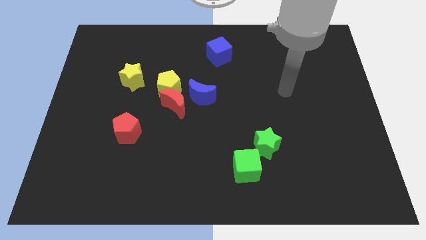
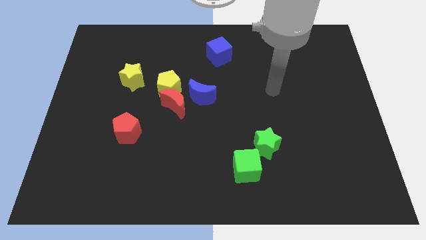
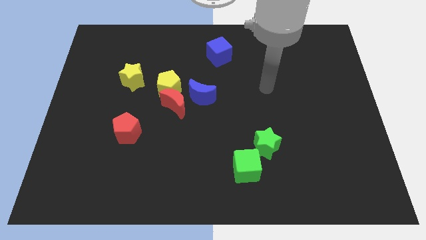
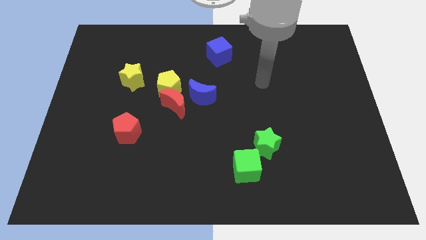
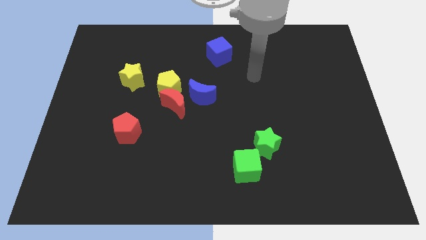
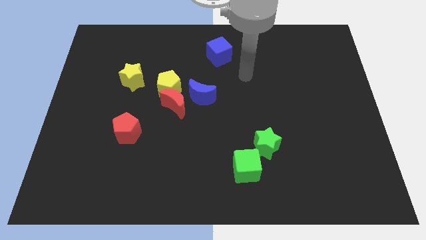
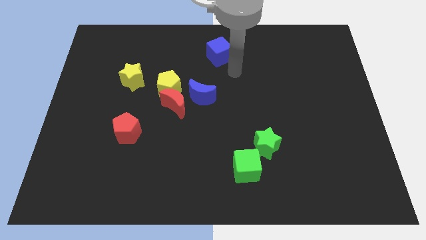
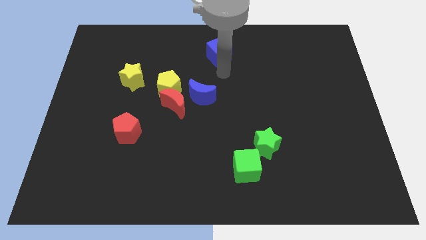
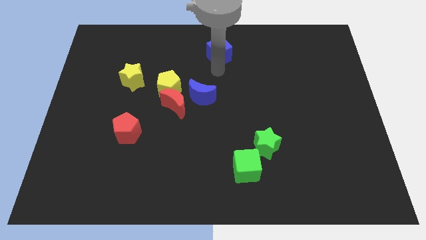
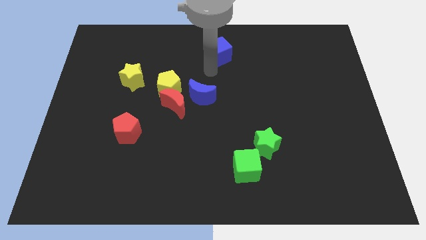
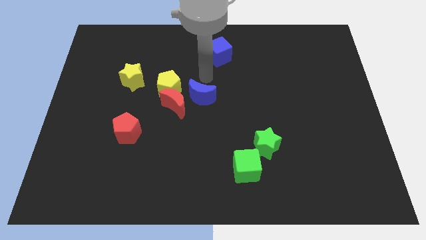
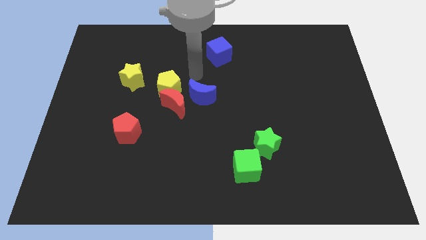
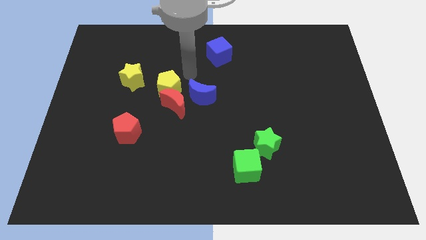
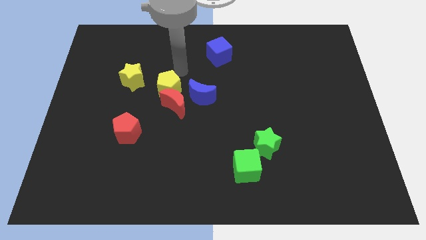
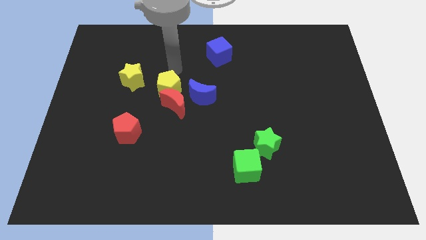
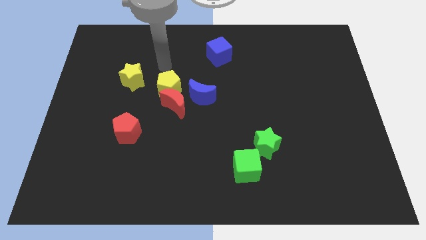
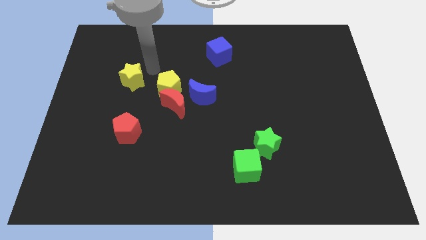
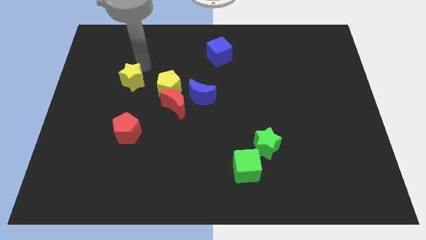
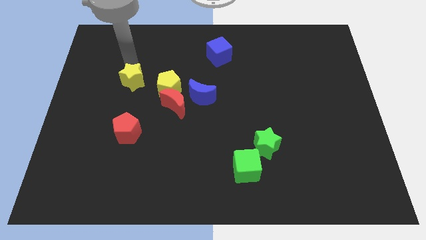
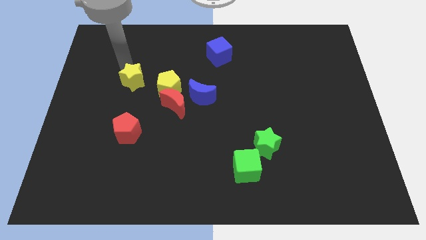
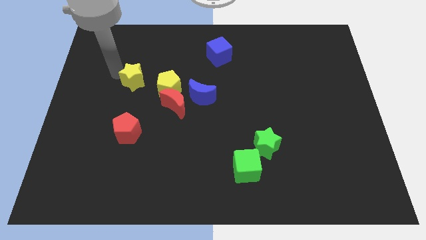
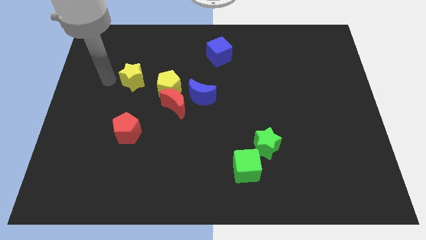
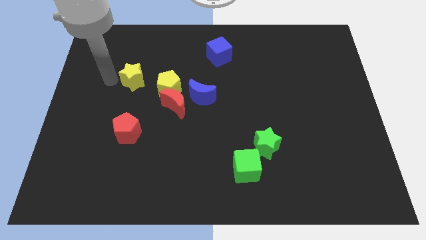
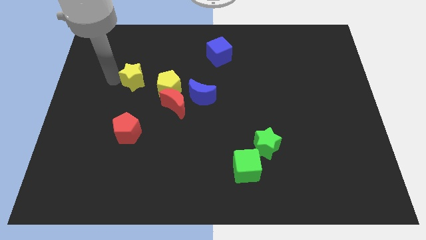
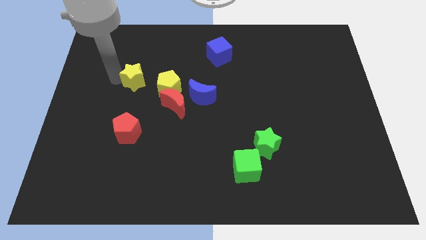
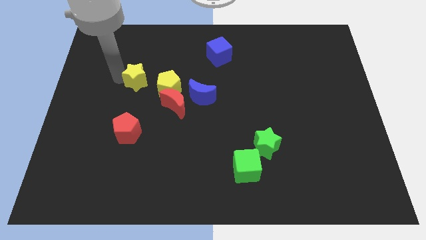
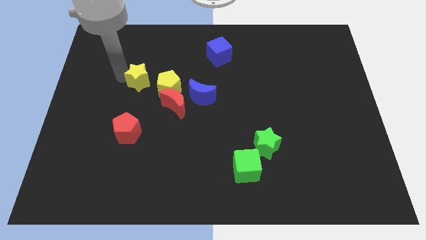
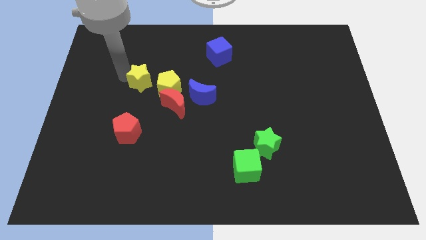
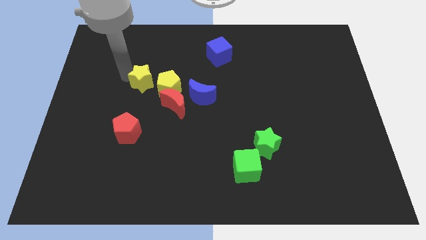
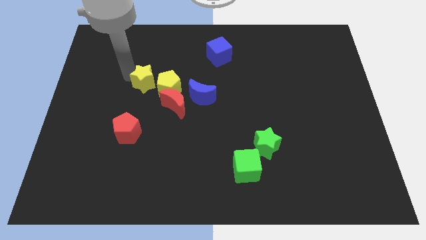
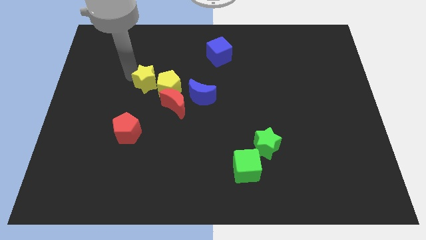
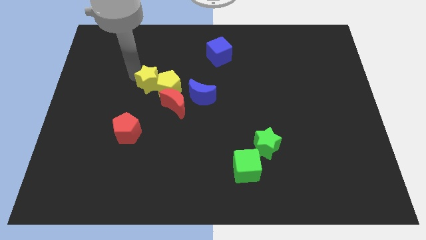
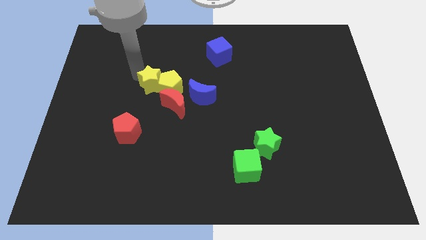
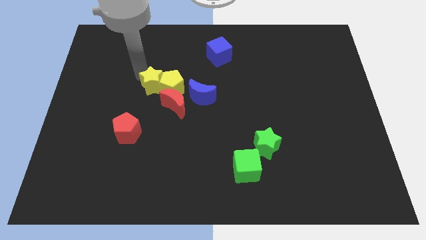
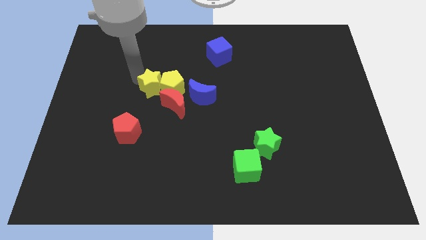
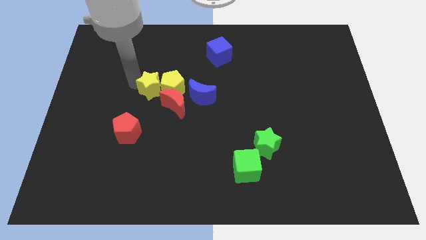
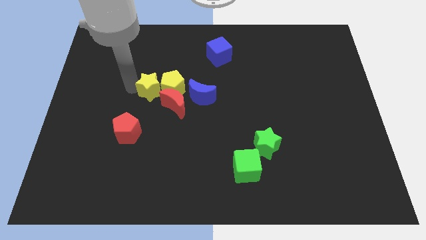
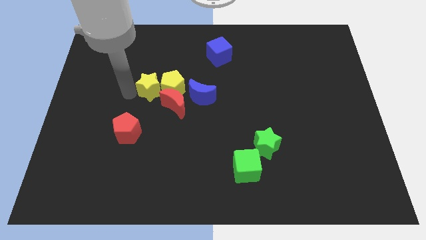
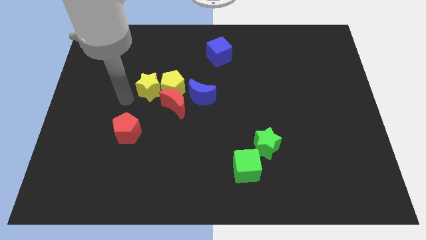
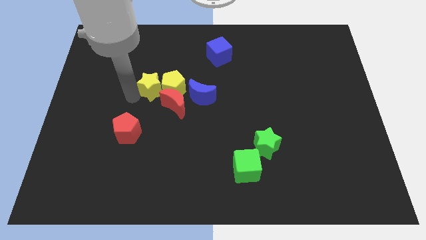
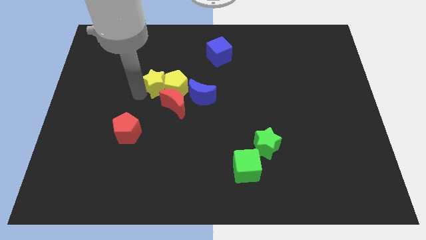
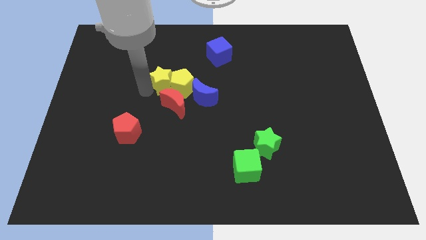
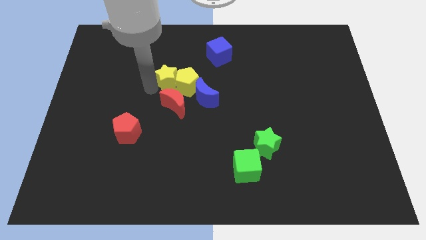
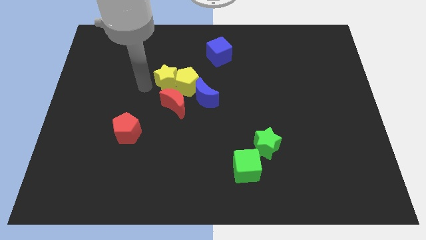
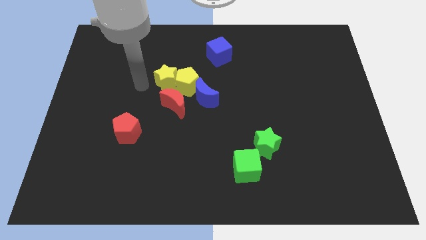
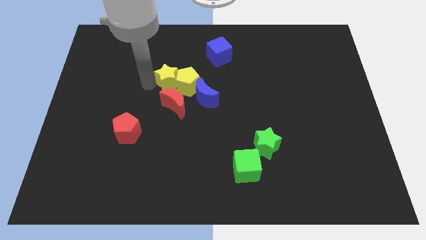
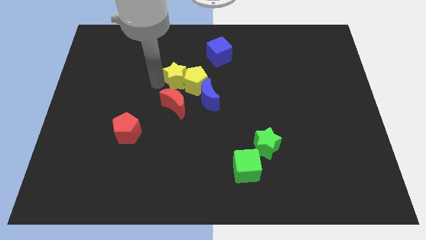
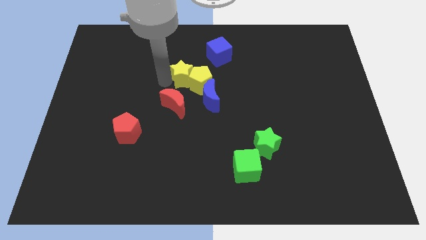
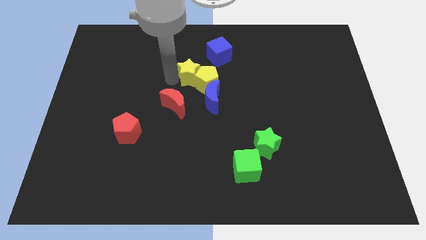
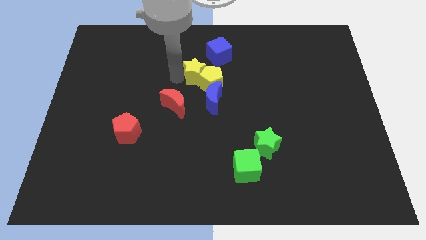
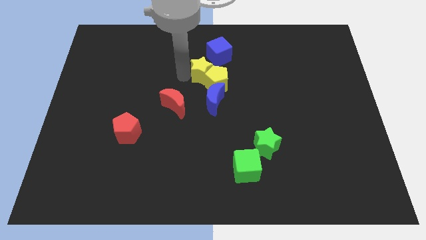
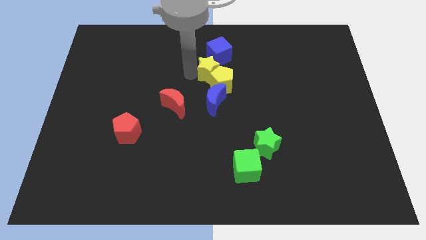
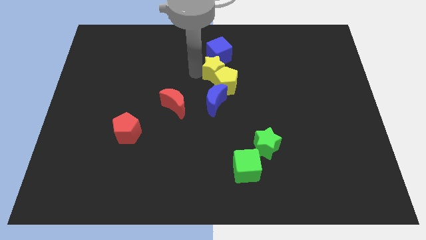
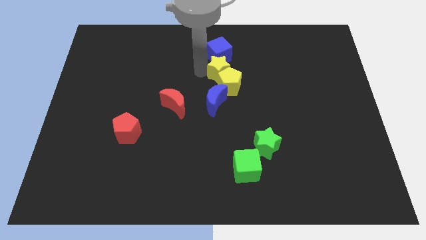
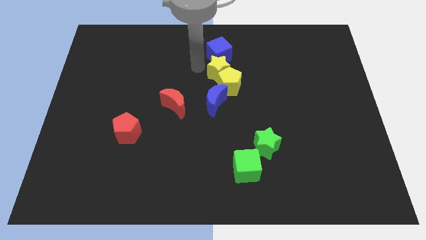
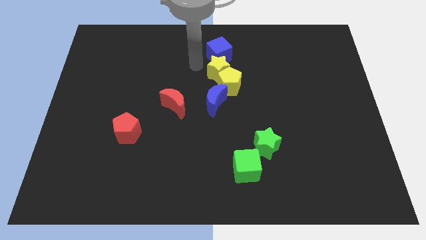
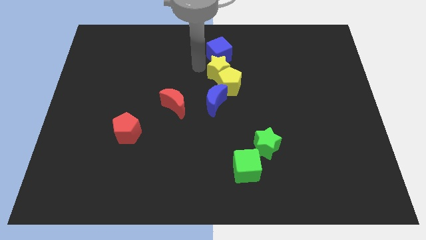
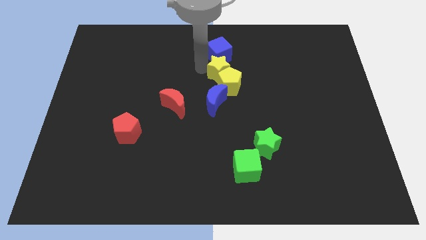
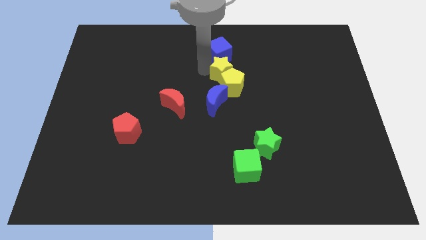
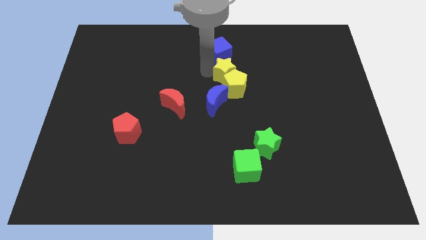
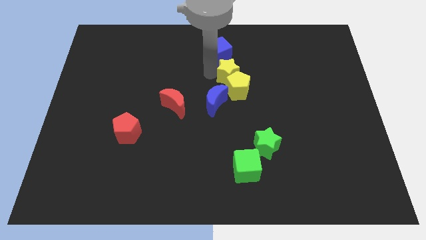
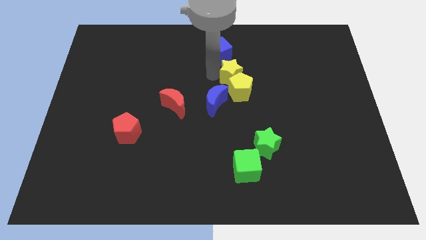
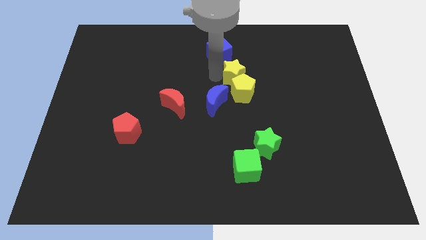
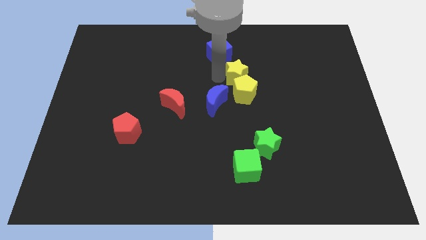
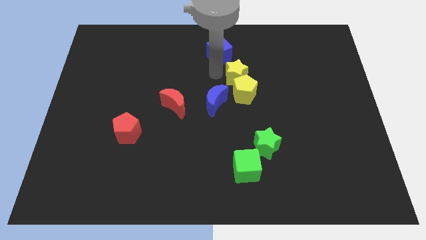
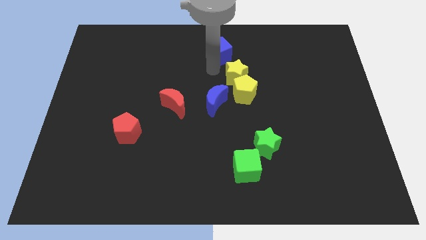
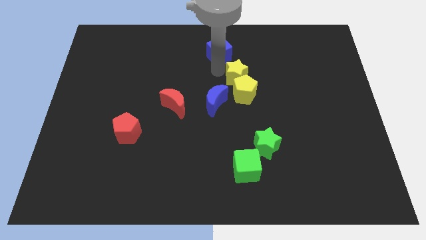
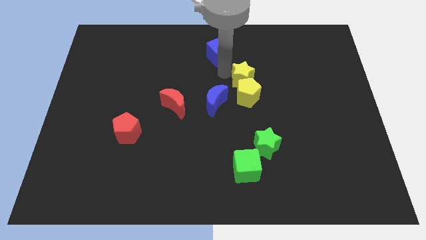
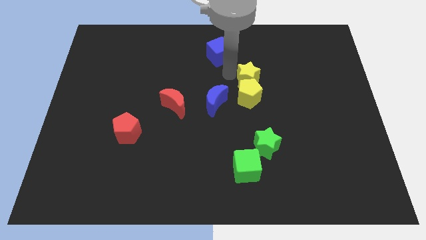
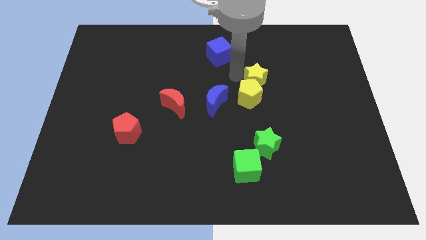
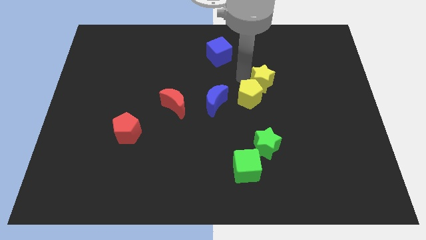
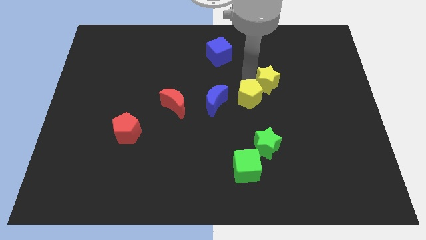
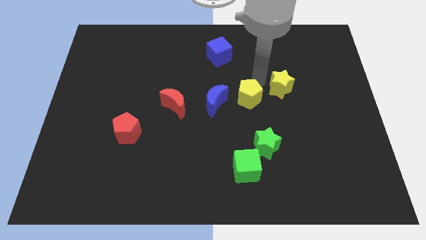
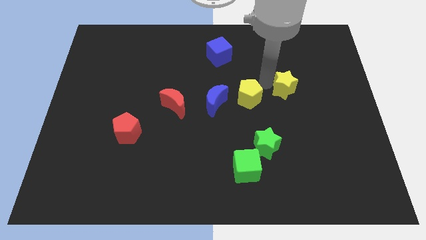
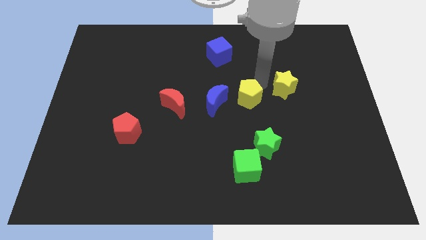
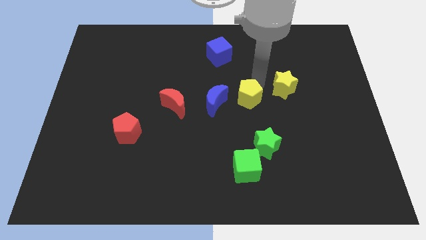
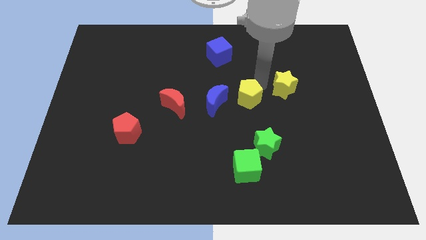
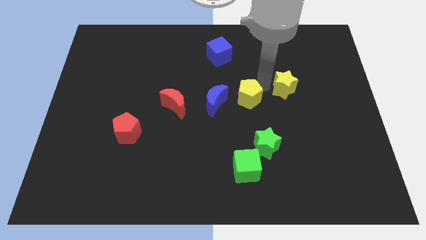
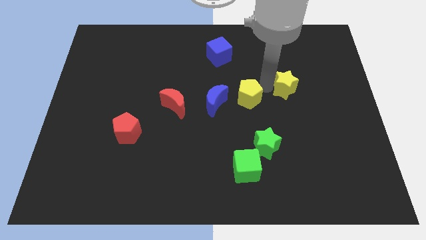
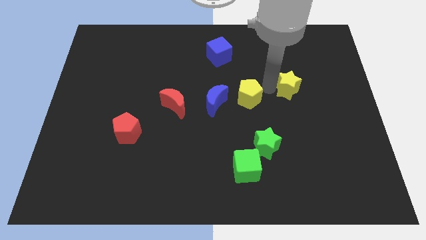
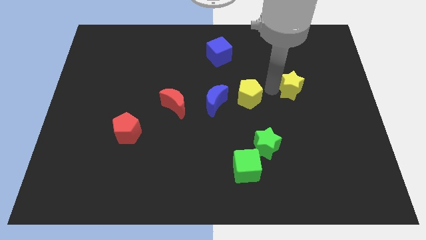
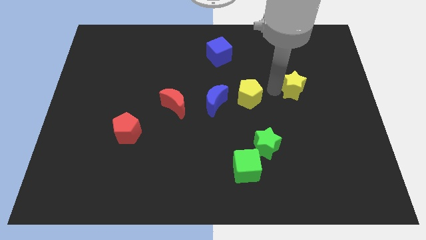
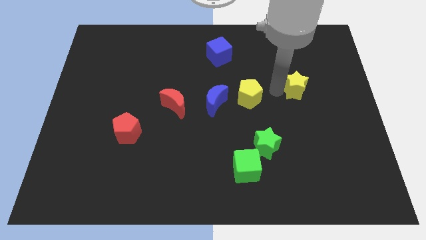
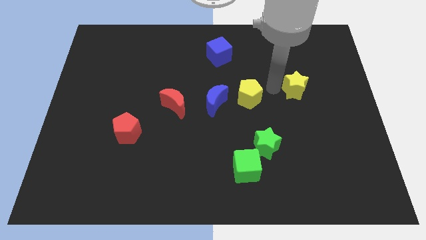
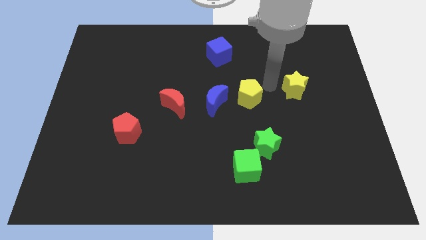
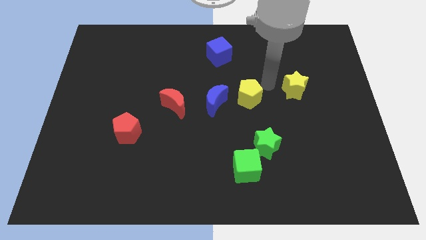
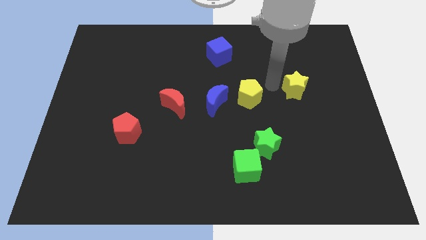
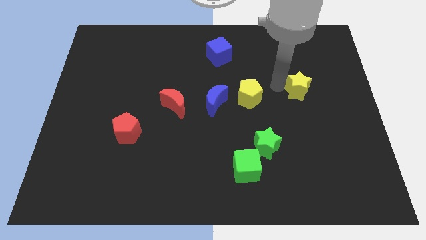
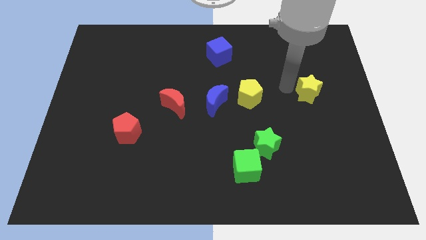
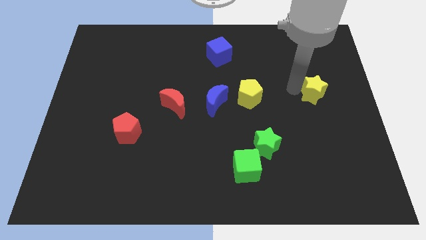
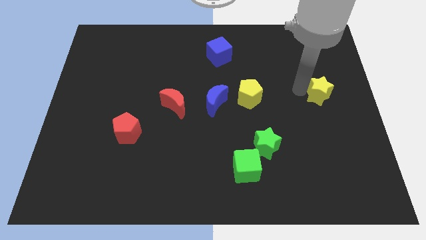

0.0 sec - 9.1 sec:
slide the yellow star to the right side of the board
